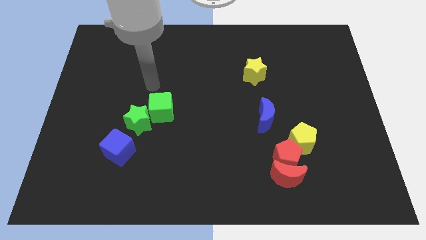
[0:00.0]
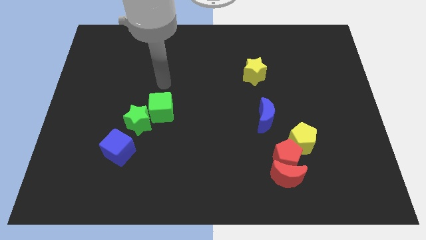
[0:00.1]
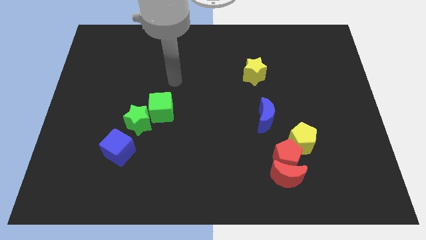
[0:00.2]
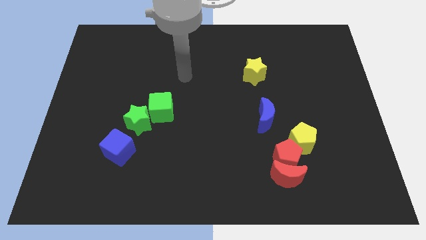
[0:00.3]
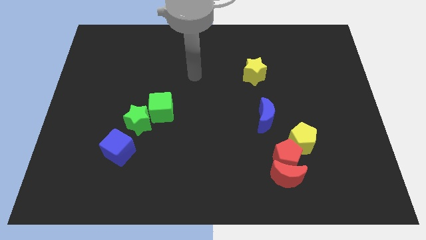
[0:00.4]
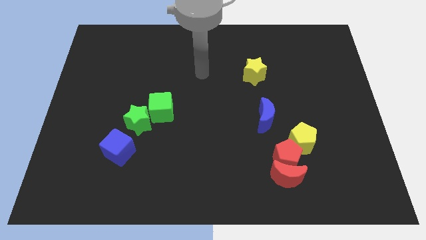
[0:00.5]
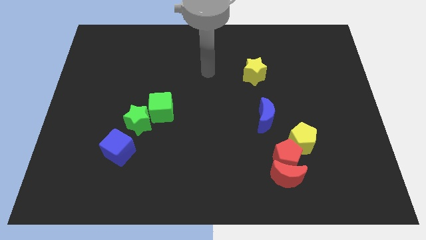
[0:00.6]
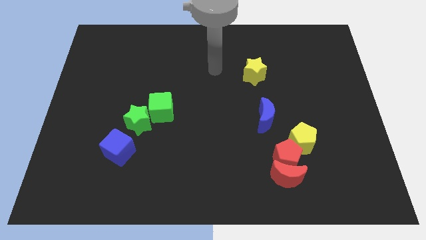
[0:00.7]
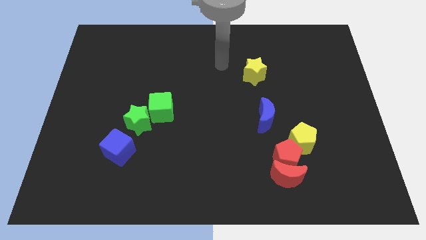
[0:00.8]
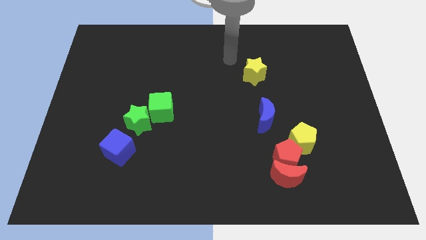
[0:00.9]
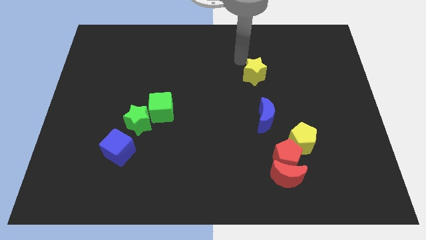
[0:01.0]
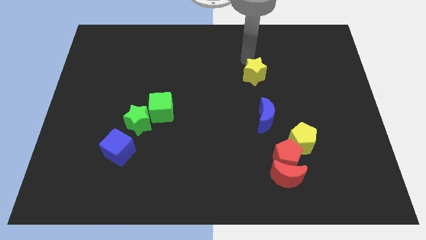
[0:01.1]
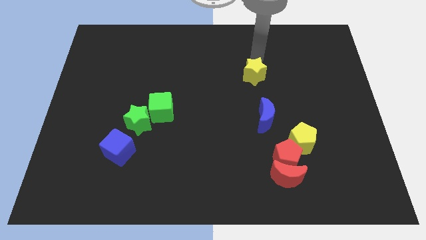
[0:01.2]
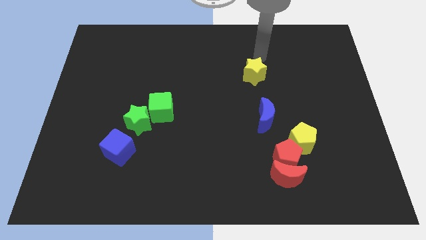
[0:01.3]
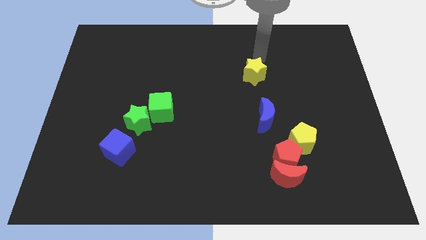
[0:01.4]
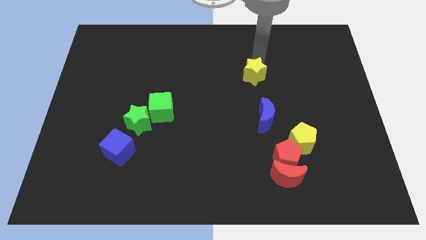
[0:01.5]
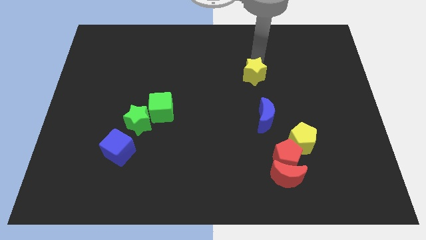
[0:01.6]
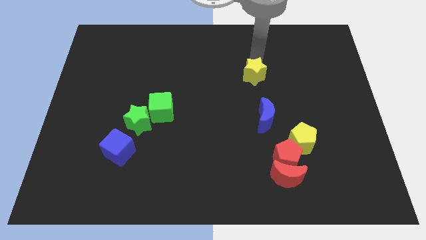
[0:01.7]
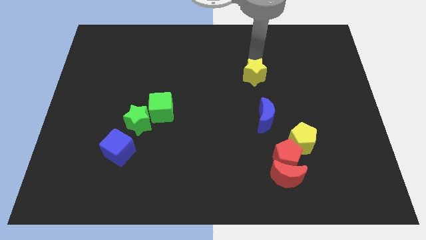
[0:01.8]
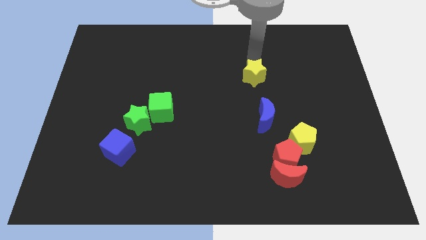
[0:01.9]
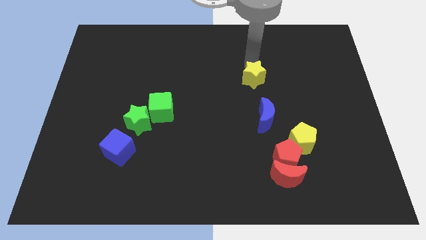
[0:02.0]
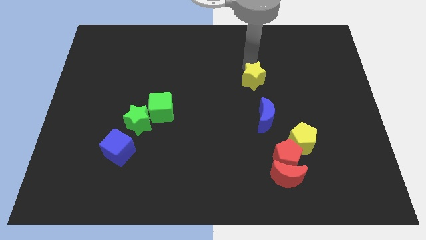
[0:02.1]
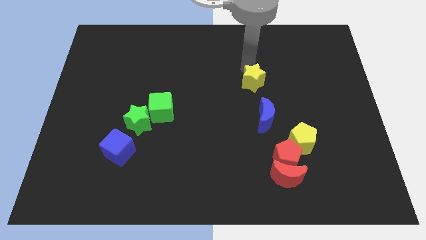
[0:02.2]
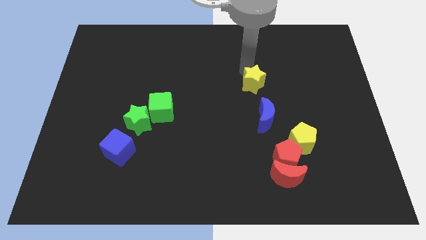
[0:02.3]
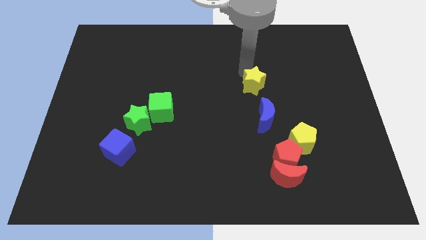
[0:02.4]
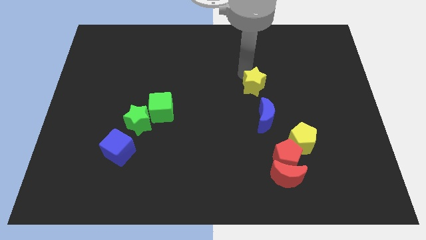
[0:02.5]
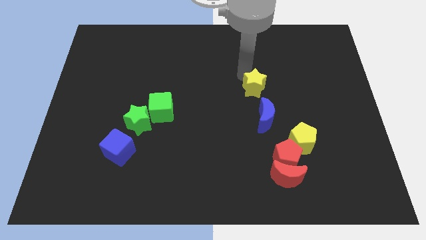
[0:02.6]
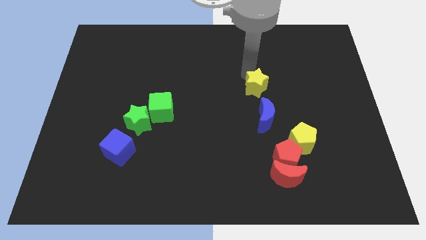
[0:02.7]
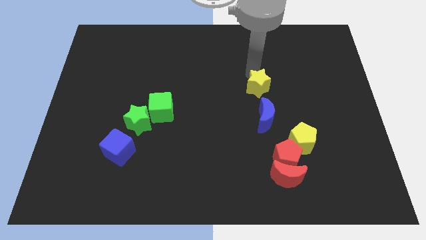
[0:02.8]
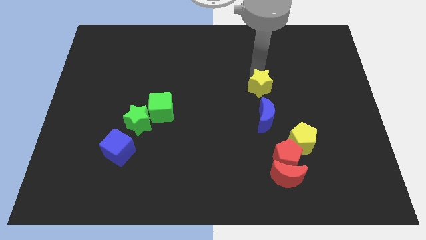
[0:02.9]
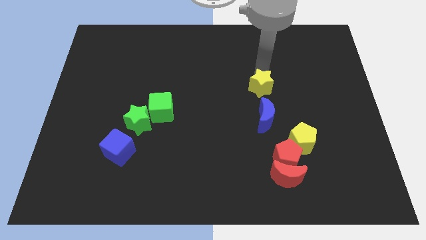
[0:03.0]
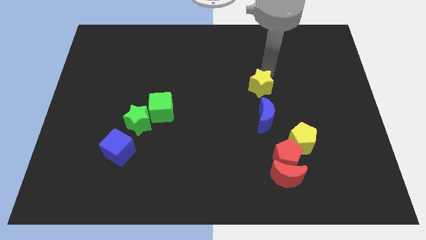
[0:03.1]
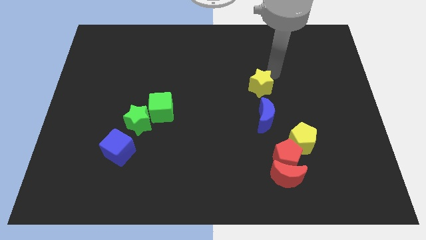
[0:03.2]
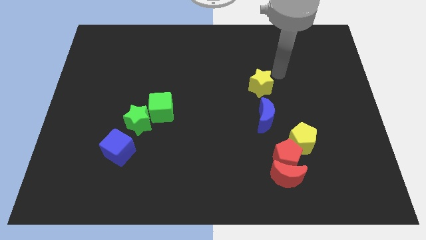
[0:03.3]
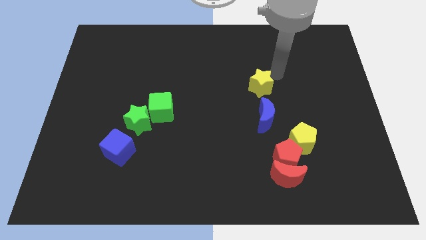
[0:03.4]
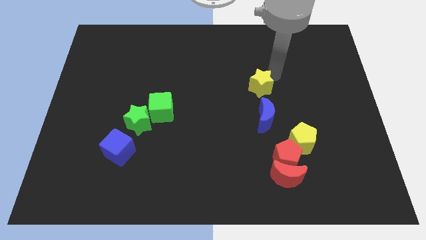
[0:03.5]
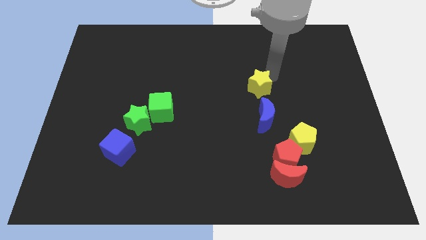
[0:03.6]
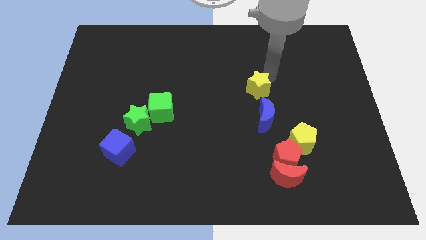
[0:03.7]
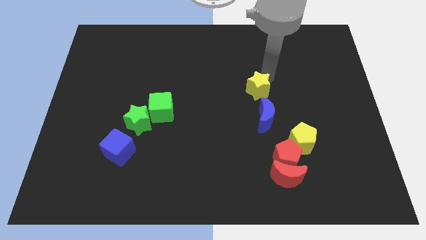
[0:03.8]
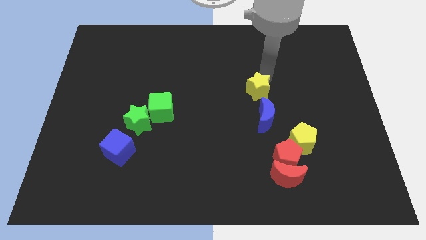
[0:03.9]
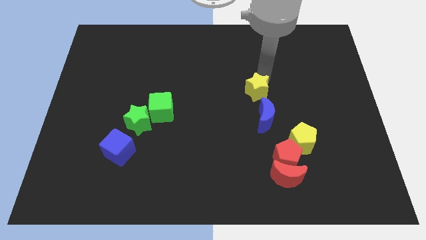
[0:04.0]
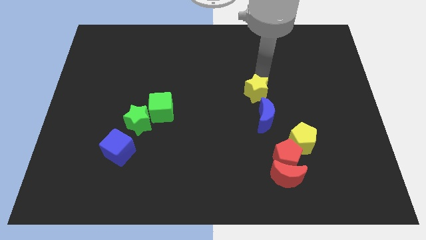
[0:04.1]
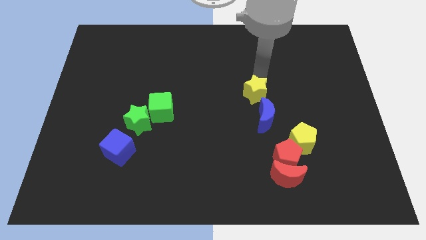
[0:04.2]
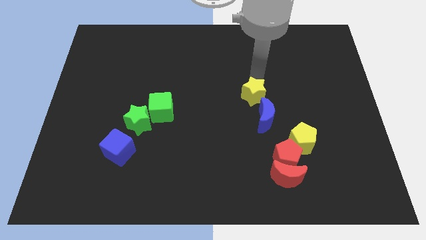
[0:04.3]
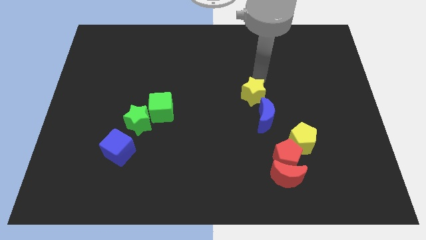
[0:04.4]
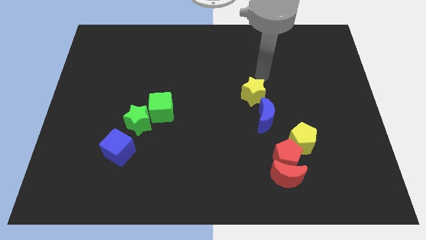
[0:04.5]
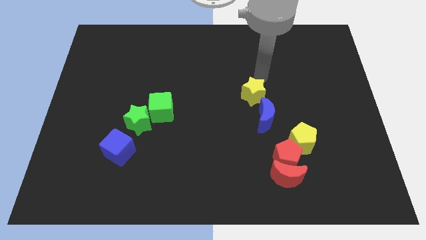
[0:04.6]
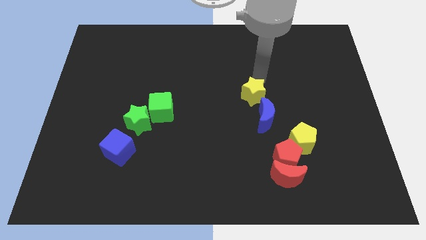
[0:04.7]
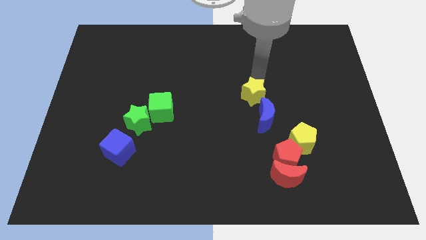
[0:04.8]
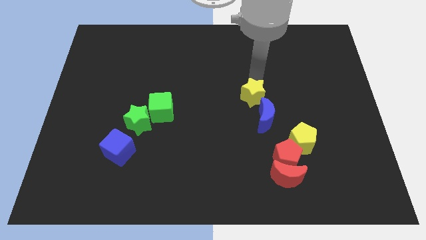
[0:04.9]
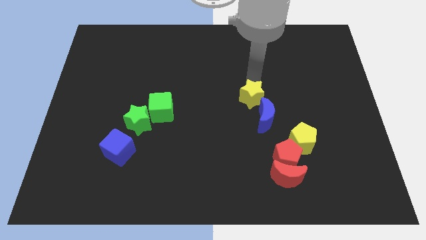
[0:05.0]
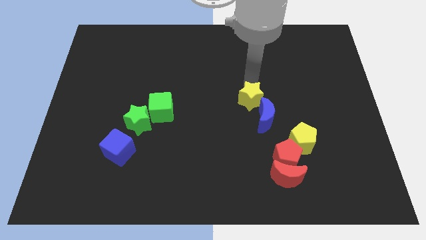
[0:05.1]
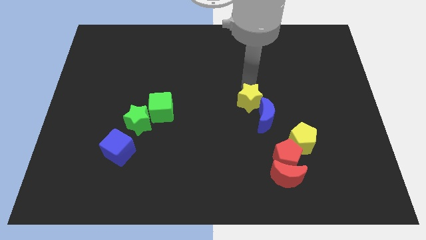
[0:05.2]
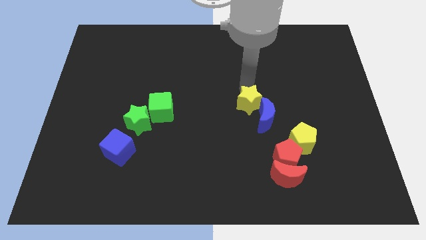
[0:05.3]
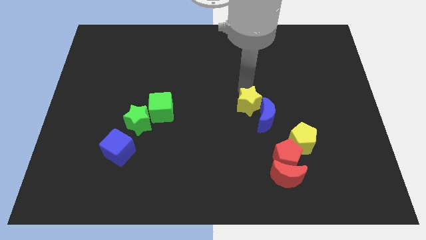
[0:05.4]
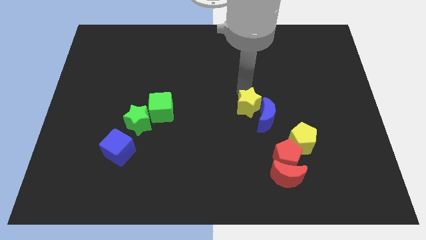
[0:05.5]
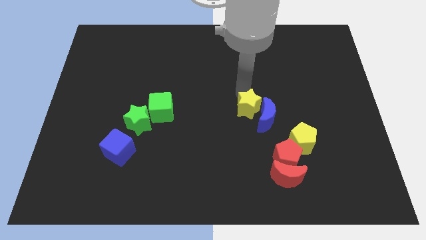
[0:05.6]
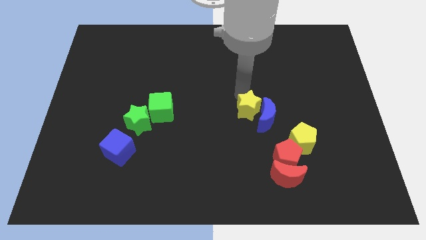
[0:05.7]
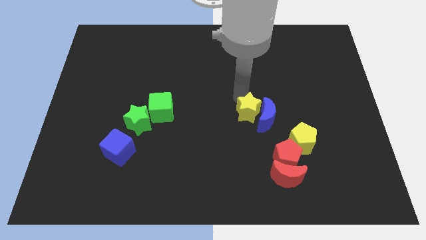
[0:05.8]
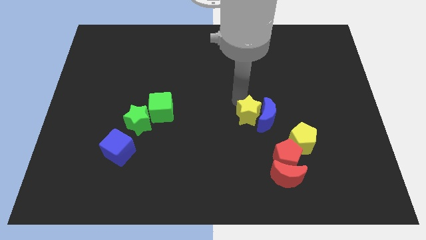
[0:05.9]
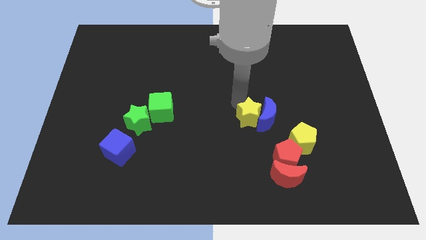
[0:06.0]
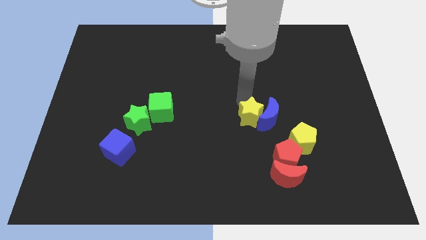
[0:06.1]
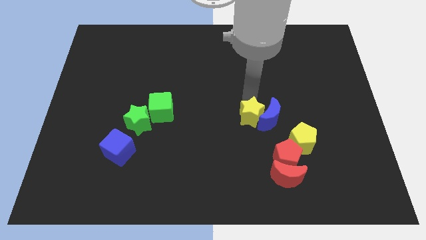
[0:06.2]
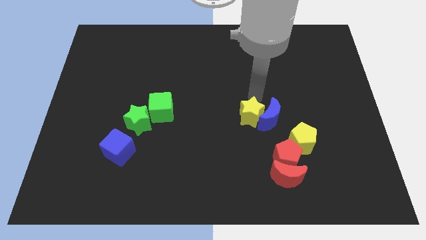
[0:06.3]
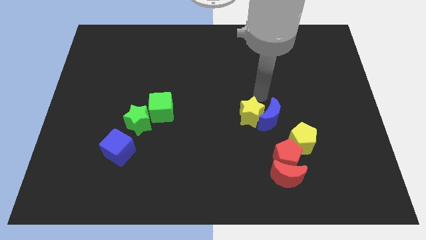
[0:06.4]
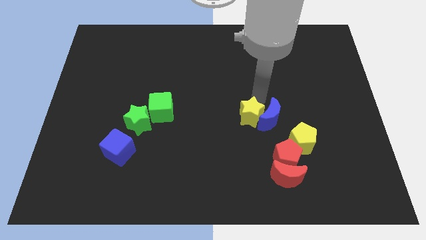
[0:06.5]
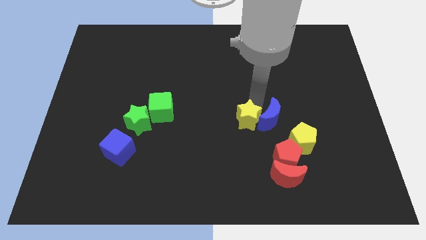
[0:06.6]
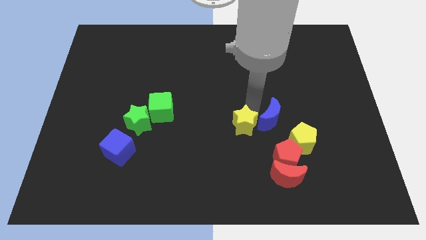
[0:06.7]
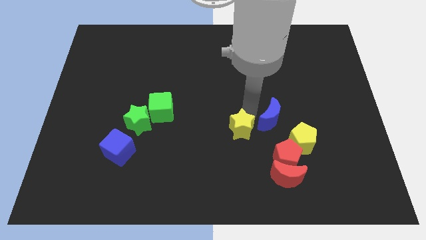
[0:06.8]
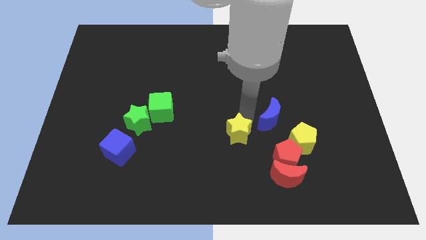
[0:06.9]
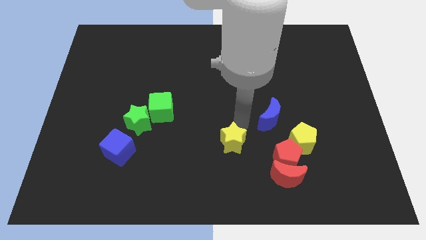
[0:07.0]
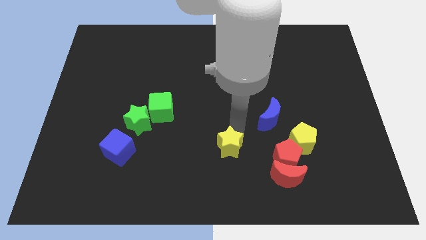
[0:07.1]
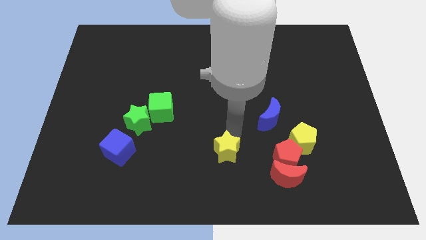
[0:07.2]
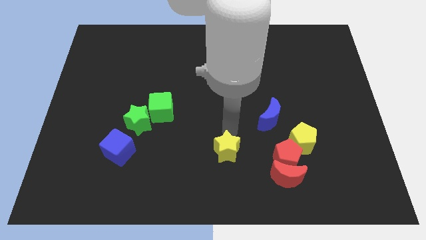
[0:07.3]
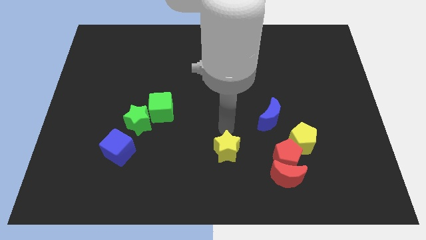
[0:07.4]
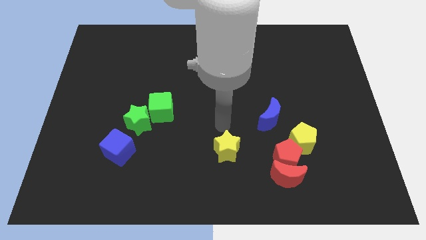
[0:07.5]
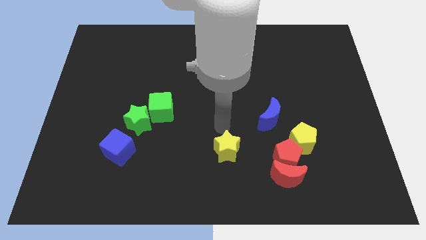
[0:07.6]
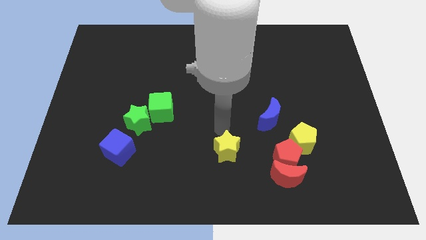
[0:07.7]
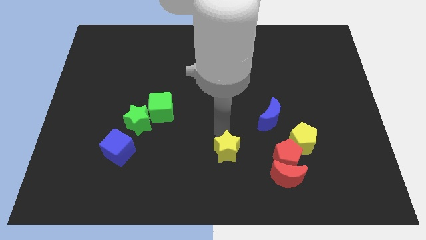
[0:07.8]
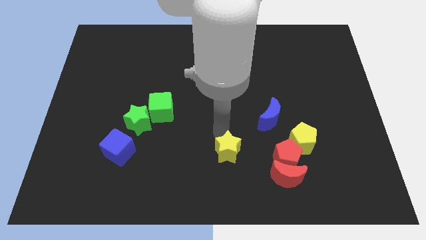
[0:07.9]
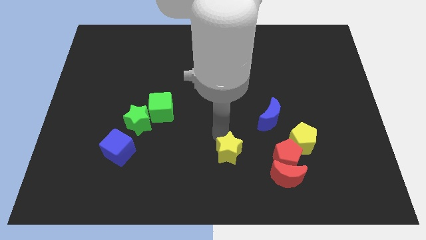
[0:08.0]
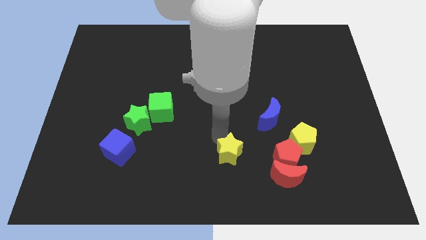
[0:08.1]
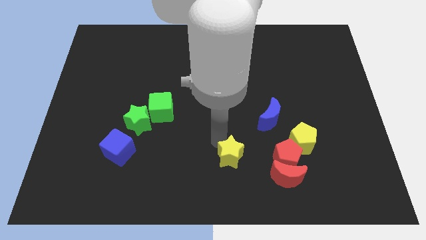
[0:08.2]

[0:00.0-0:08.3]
put the yellow star to the bottom
